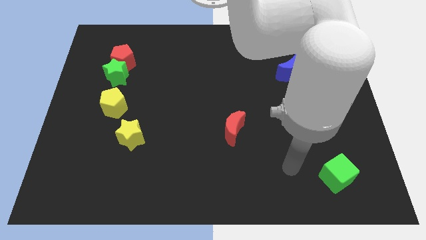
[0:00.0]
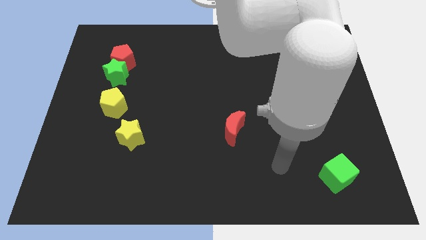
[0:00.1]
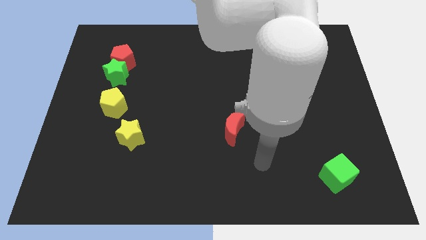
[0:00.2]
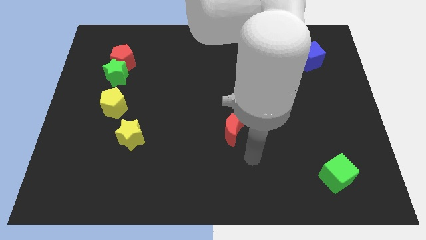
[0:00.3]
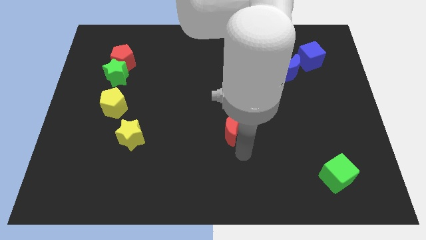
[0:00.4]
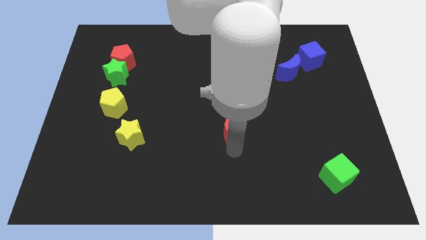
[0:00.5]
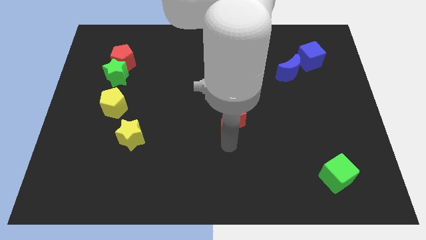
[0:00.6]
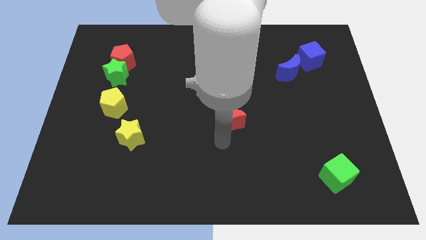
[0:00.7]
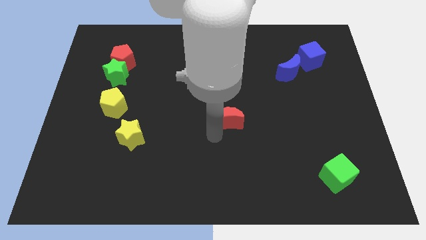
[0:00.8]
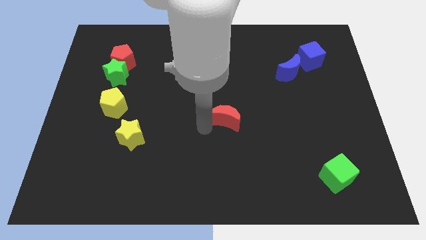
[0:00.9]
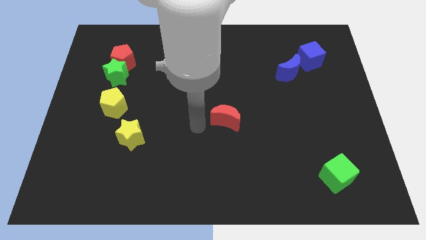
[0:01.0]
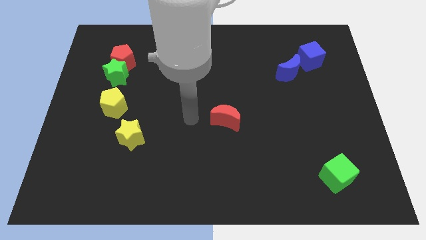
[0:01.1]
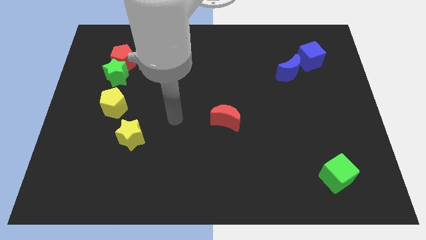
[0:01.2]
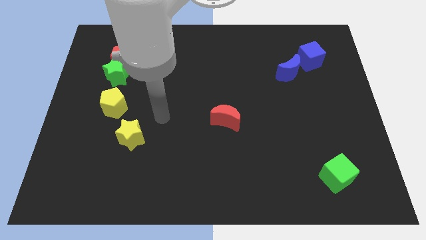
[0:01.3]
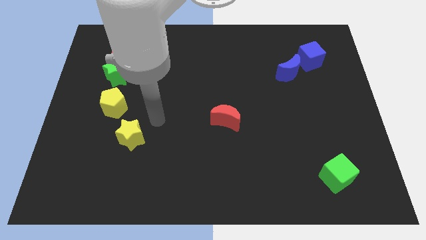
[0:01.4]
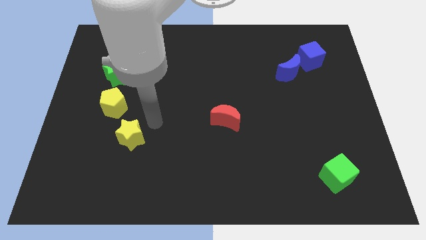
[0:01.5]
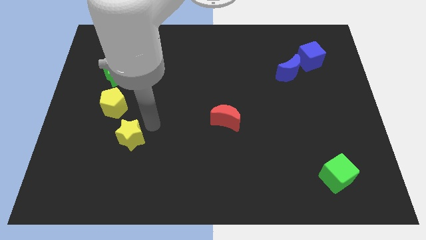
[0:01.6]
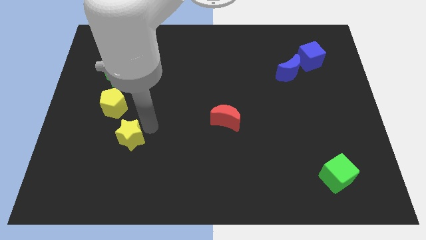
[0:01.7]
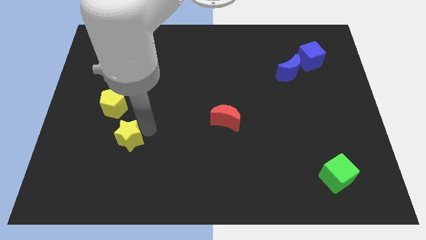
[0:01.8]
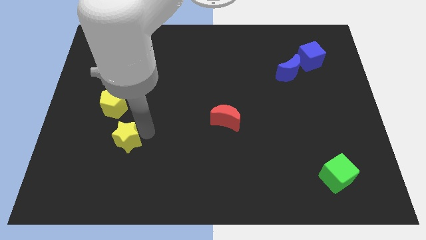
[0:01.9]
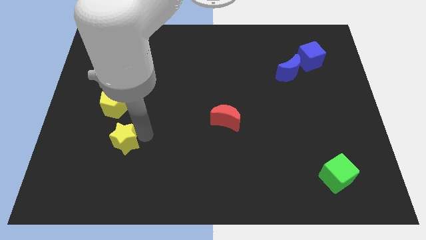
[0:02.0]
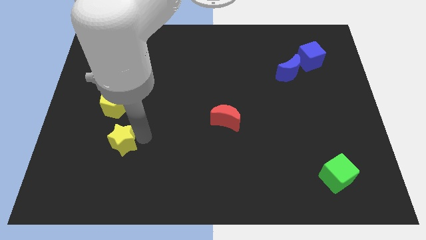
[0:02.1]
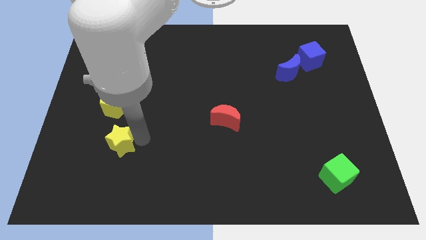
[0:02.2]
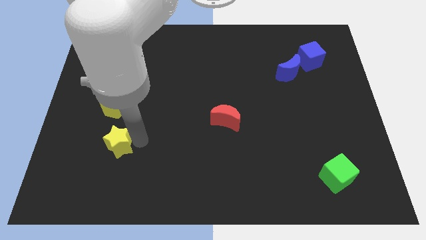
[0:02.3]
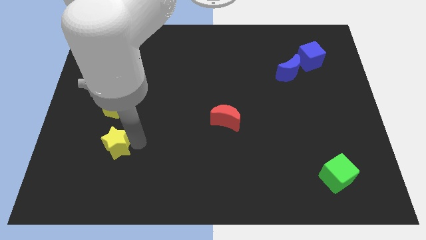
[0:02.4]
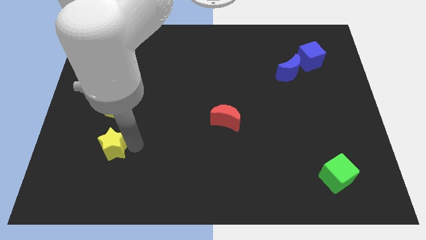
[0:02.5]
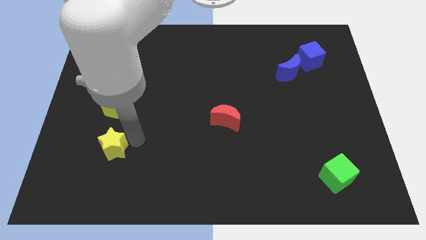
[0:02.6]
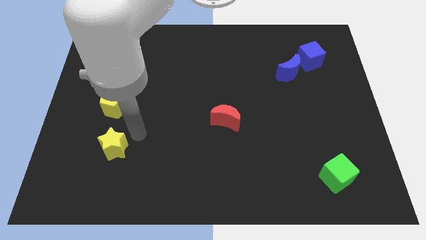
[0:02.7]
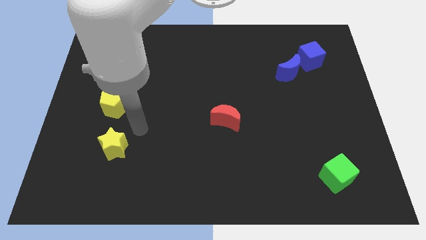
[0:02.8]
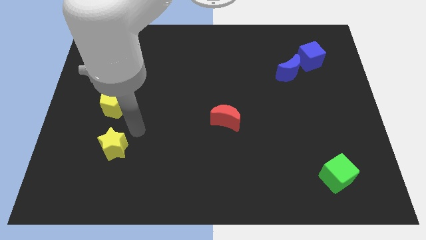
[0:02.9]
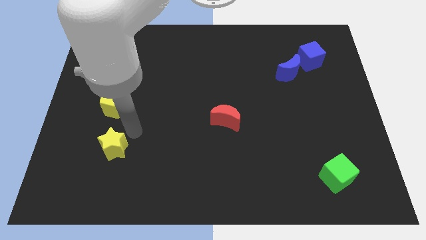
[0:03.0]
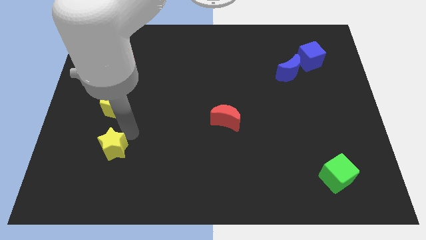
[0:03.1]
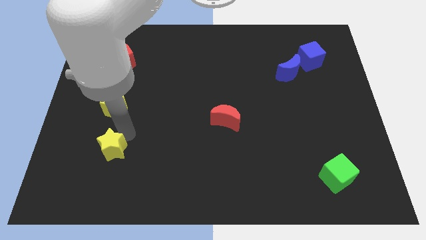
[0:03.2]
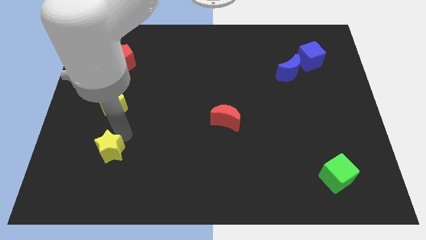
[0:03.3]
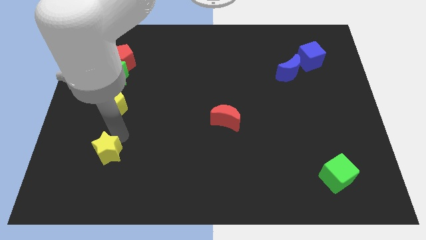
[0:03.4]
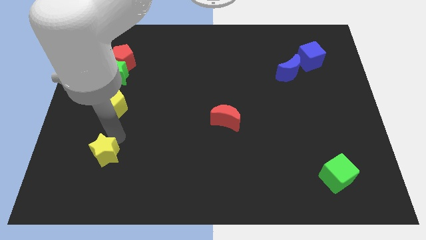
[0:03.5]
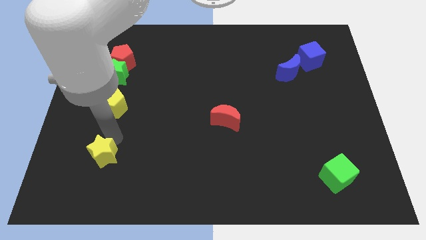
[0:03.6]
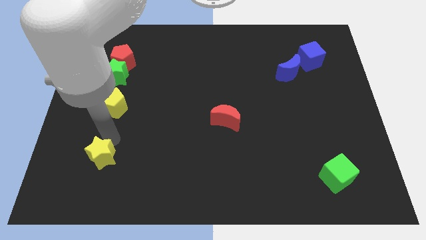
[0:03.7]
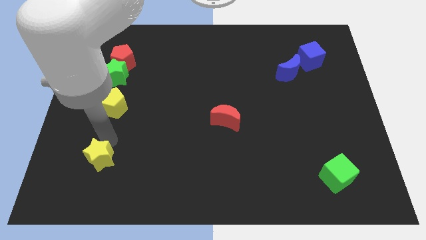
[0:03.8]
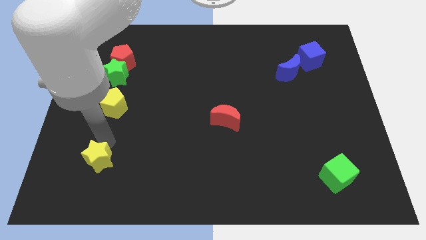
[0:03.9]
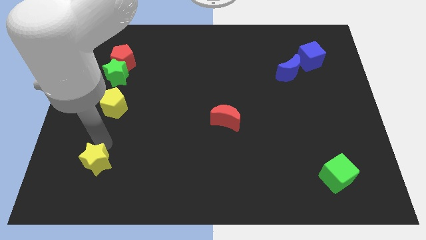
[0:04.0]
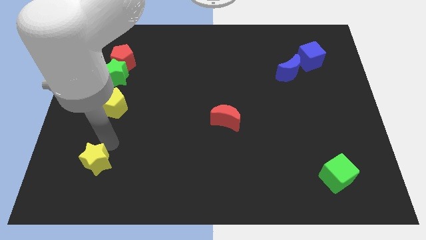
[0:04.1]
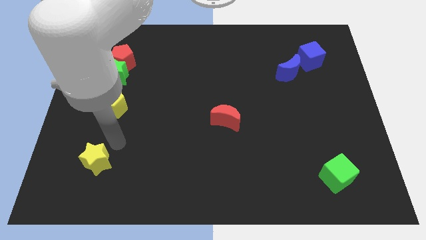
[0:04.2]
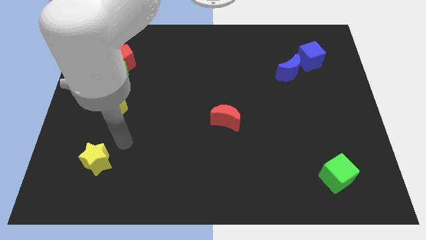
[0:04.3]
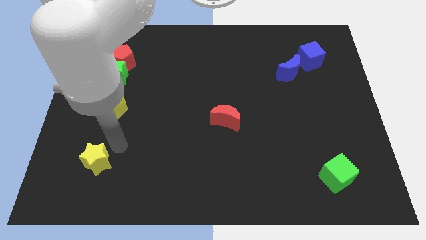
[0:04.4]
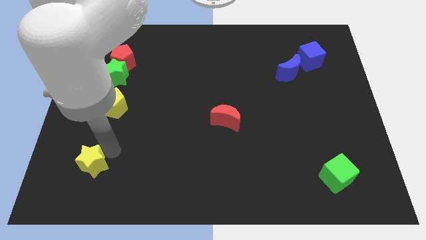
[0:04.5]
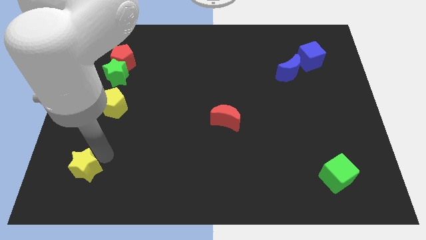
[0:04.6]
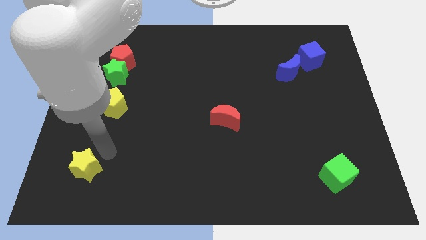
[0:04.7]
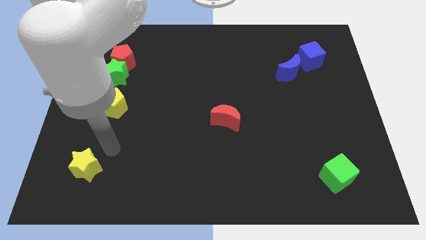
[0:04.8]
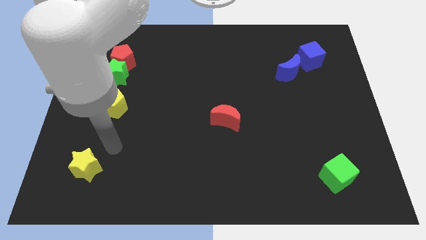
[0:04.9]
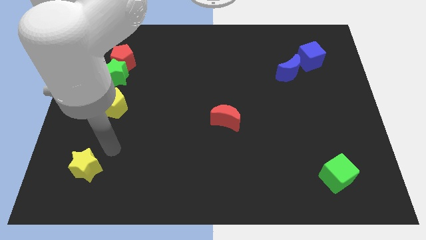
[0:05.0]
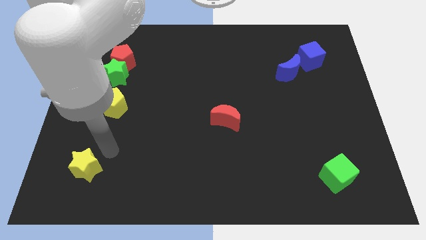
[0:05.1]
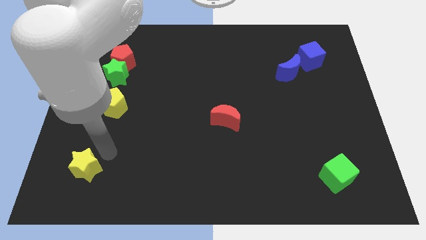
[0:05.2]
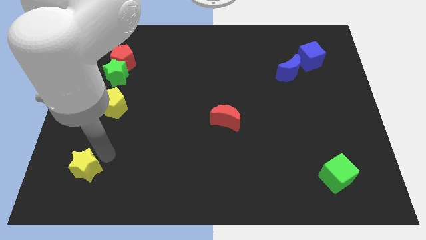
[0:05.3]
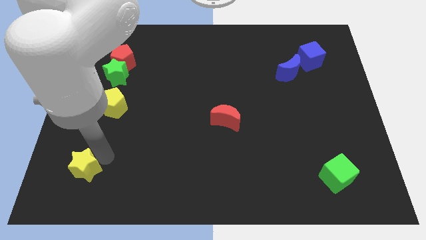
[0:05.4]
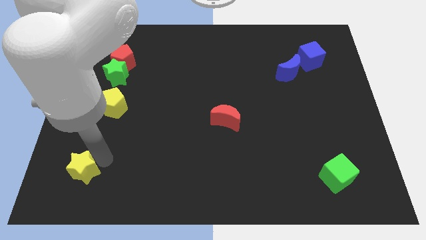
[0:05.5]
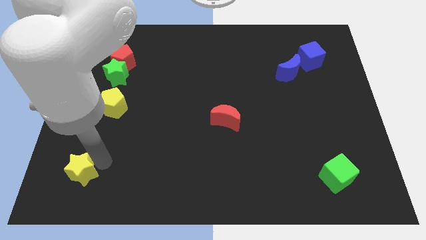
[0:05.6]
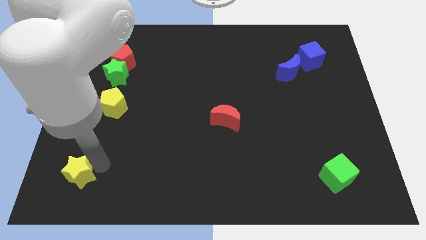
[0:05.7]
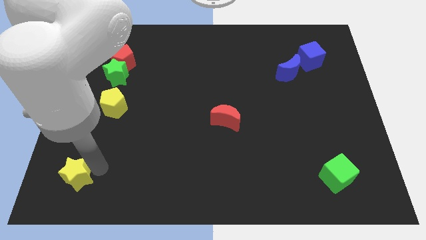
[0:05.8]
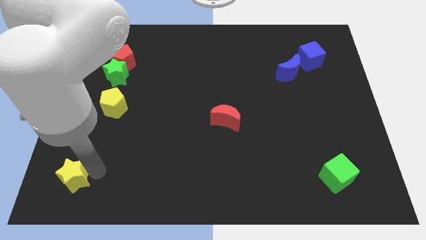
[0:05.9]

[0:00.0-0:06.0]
push the yellow star to the bottom left

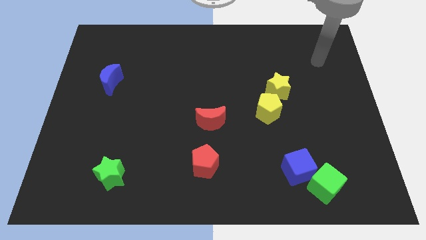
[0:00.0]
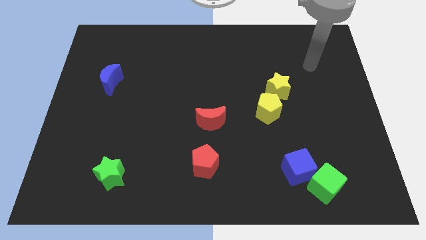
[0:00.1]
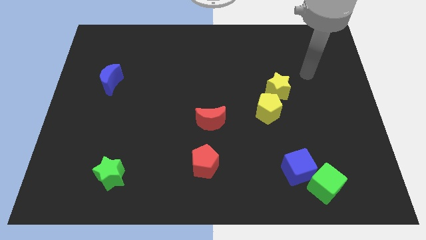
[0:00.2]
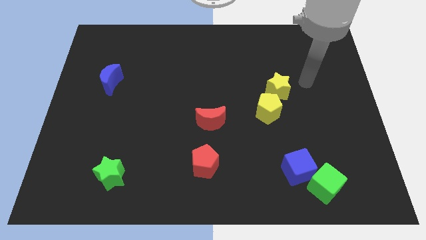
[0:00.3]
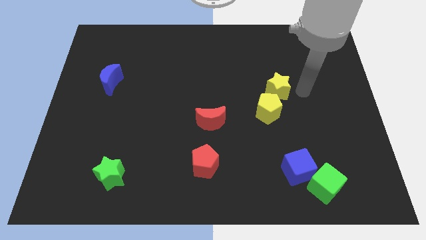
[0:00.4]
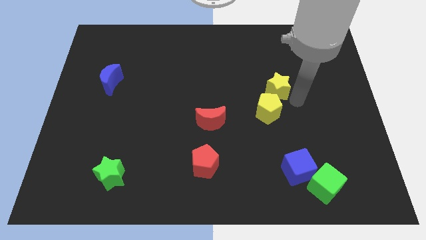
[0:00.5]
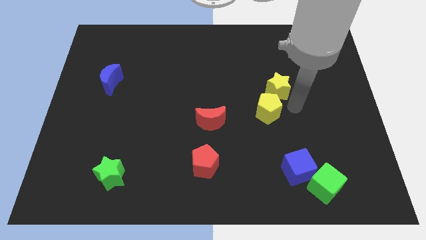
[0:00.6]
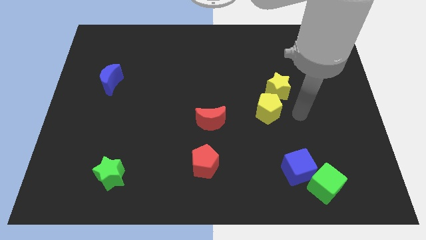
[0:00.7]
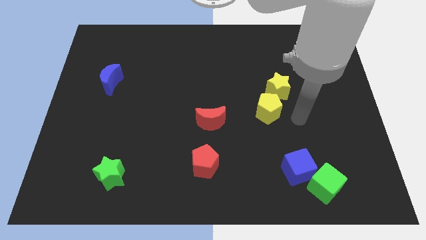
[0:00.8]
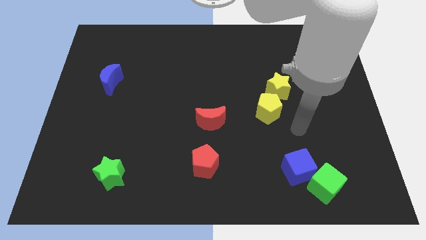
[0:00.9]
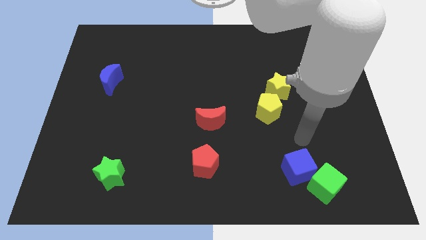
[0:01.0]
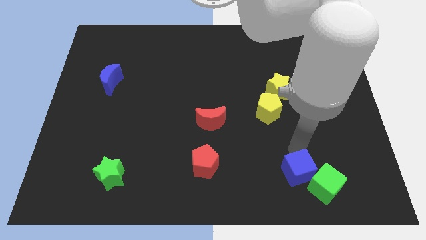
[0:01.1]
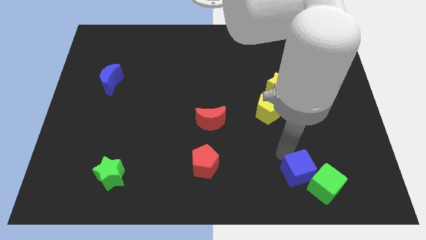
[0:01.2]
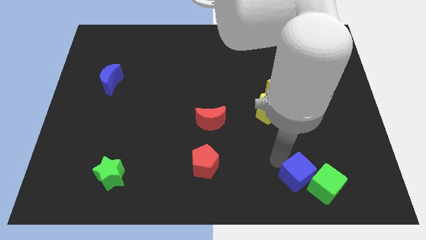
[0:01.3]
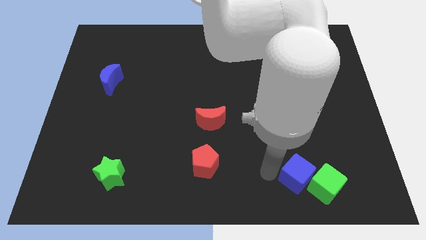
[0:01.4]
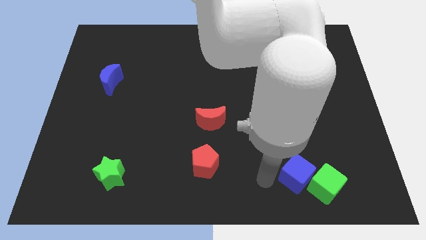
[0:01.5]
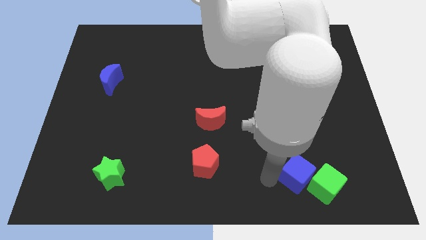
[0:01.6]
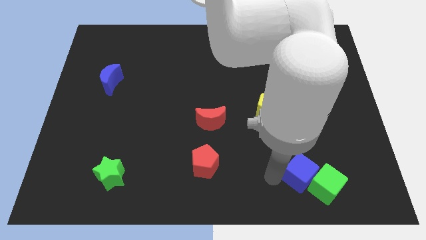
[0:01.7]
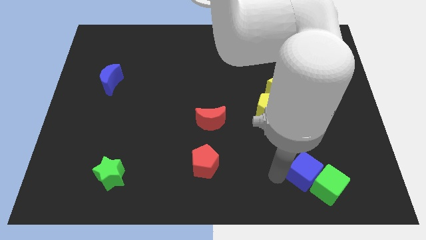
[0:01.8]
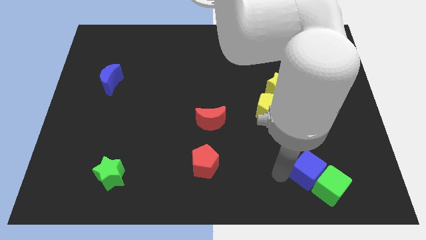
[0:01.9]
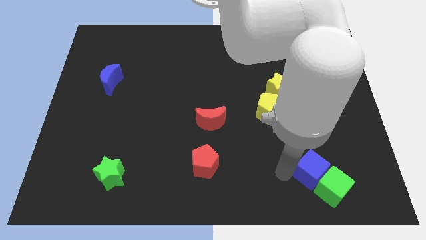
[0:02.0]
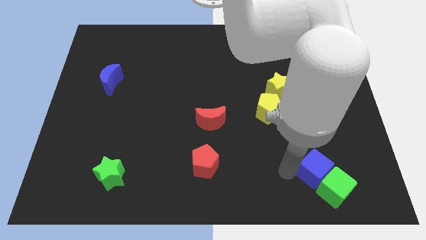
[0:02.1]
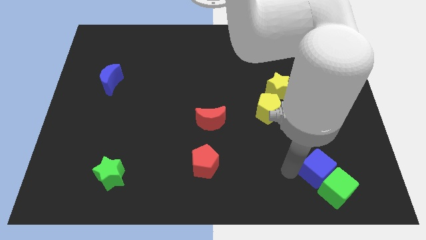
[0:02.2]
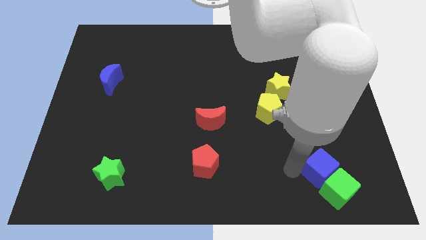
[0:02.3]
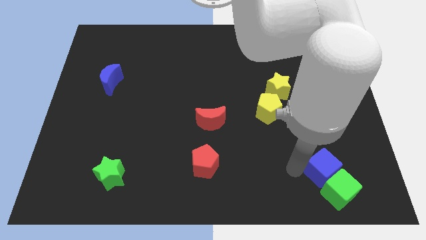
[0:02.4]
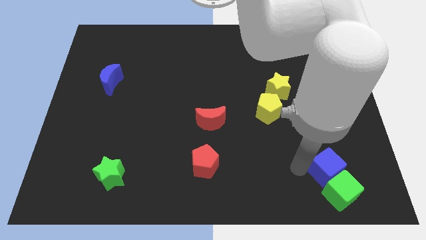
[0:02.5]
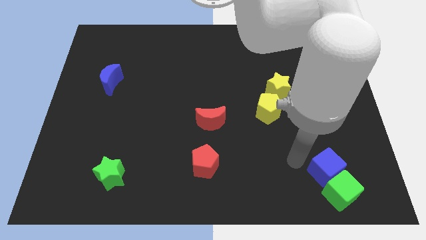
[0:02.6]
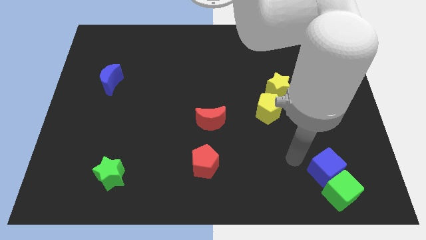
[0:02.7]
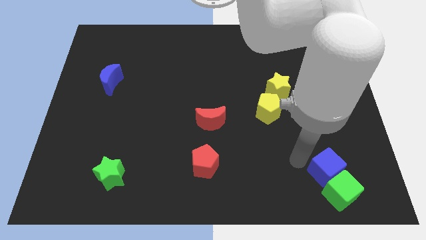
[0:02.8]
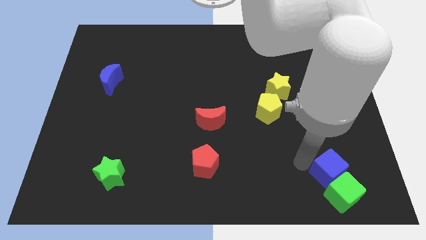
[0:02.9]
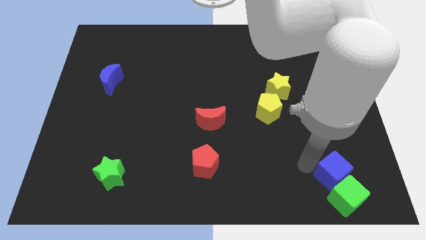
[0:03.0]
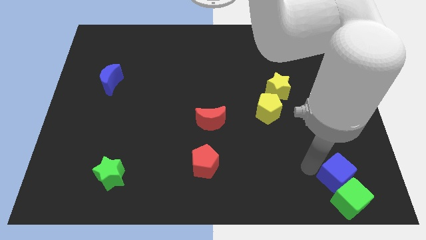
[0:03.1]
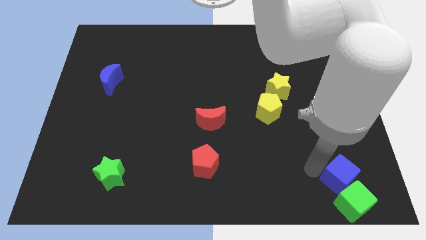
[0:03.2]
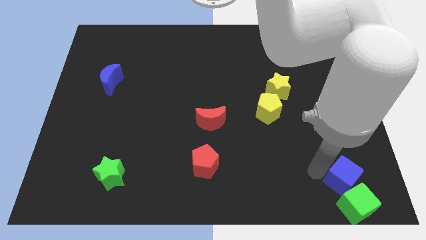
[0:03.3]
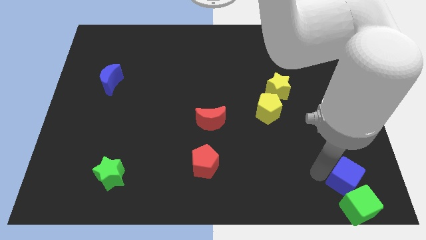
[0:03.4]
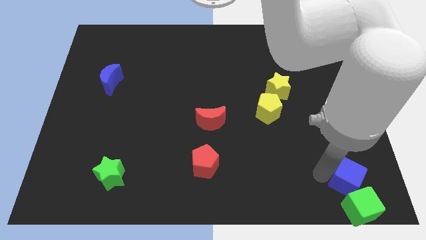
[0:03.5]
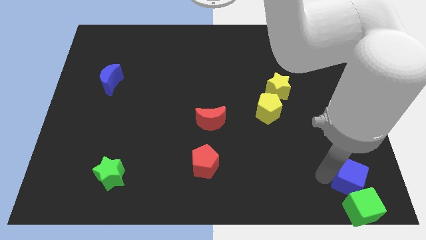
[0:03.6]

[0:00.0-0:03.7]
put the blue cube to the bottom right
